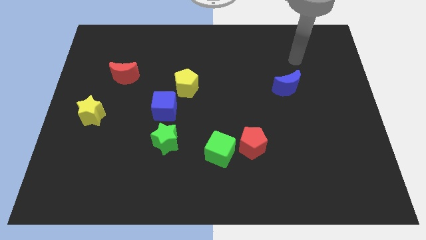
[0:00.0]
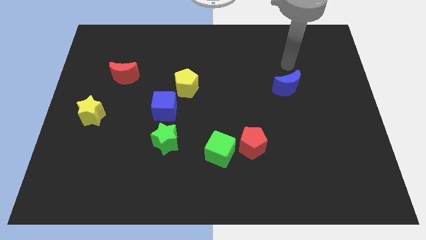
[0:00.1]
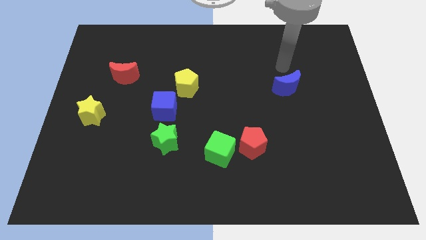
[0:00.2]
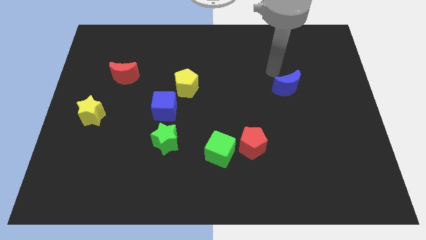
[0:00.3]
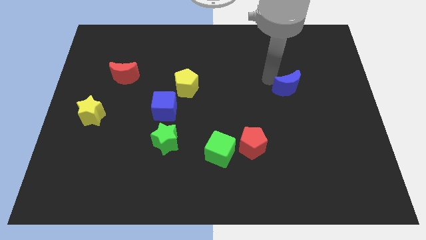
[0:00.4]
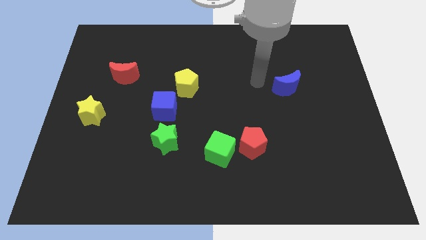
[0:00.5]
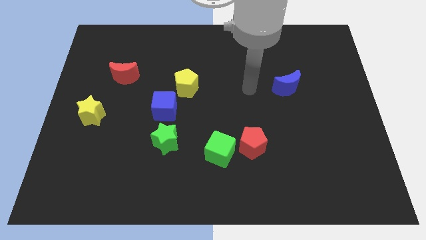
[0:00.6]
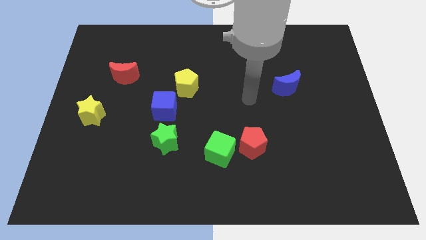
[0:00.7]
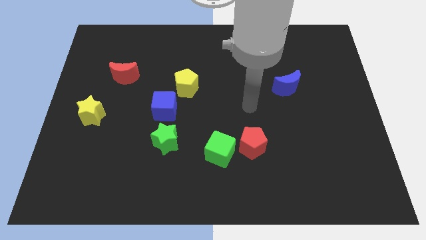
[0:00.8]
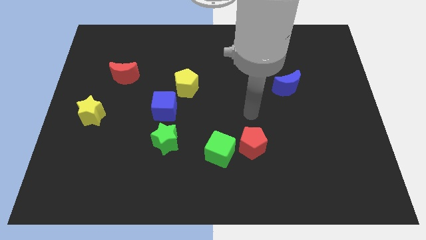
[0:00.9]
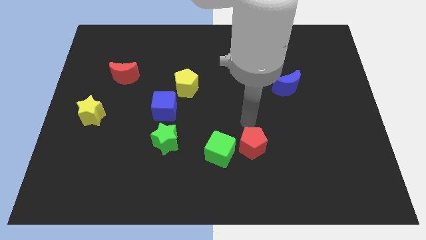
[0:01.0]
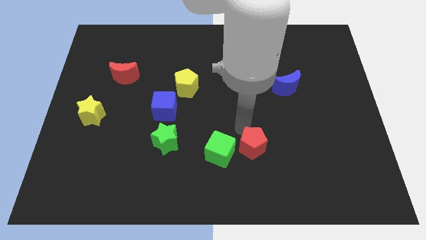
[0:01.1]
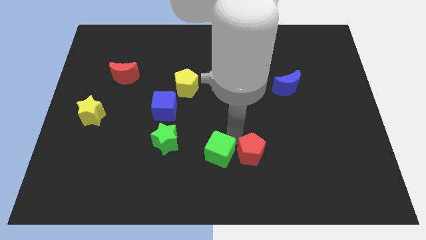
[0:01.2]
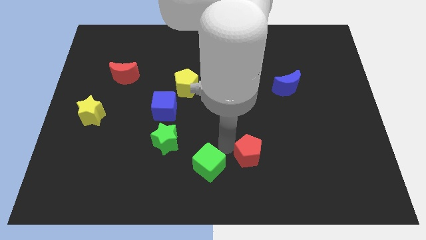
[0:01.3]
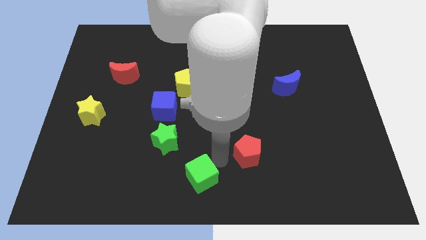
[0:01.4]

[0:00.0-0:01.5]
pull the red pentagon apart from the green cube

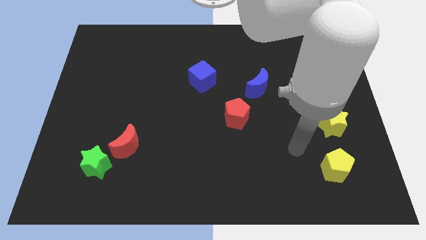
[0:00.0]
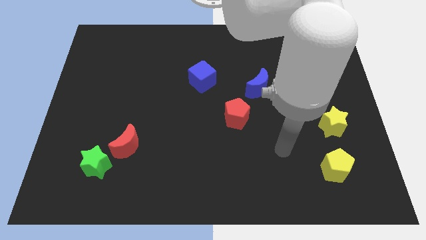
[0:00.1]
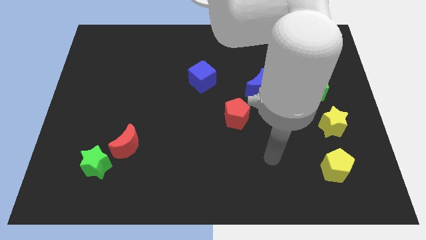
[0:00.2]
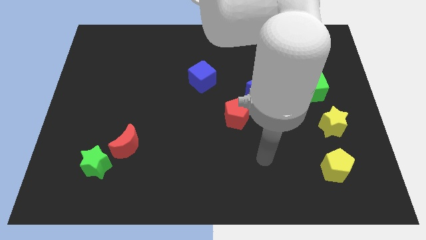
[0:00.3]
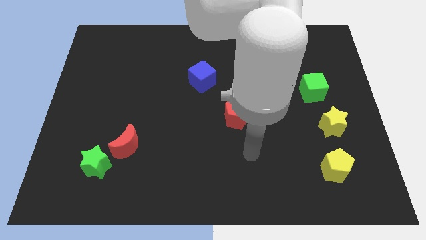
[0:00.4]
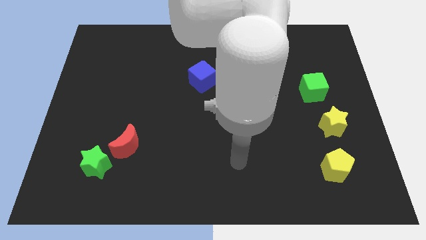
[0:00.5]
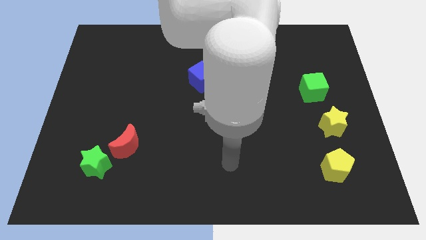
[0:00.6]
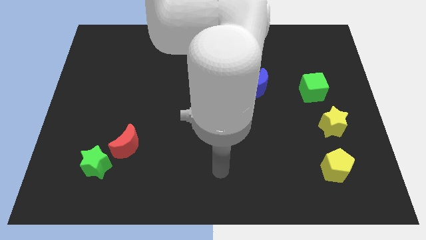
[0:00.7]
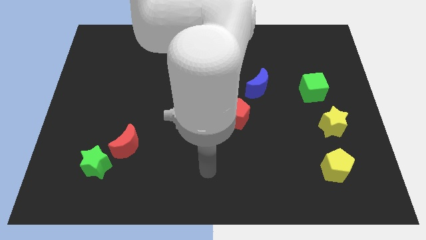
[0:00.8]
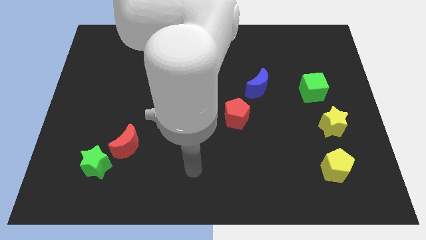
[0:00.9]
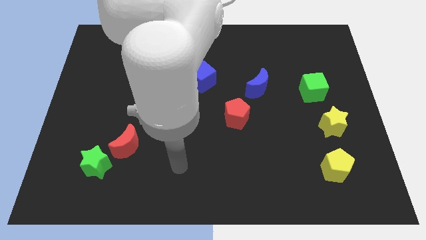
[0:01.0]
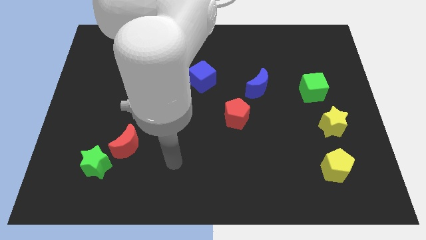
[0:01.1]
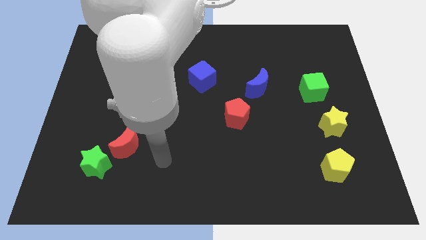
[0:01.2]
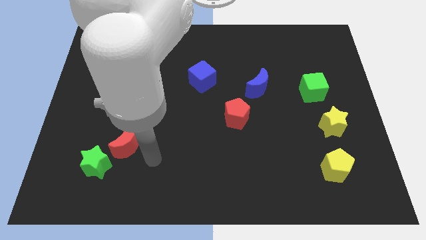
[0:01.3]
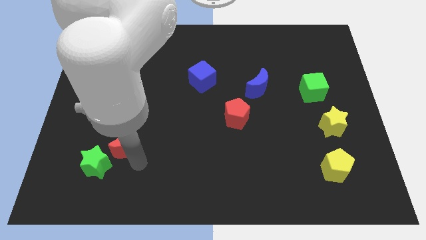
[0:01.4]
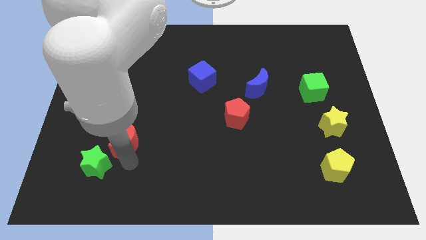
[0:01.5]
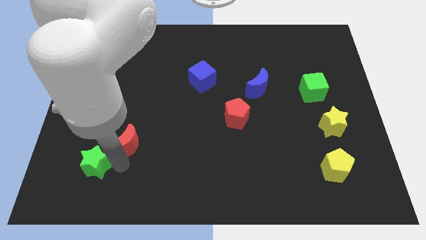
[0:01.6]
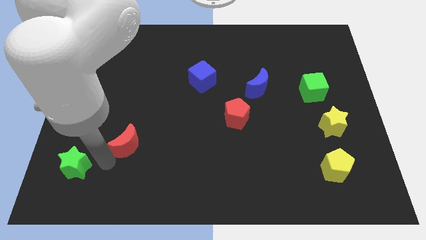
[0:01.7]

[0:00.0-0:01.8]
separate the red moon from the green star

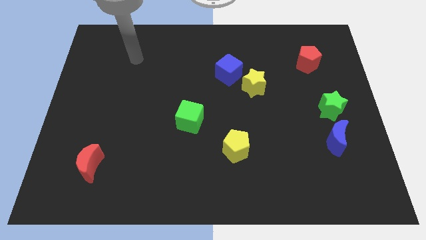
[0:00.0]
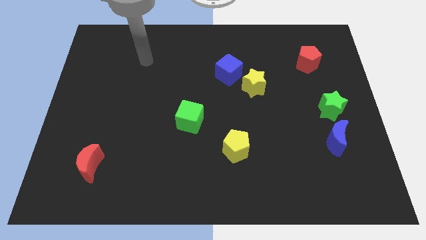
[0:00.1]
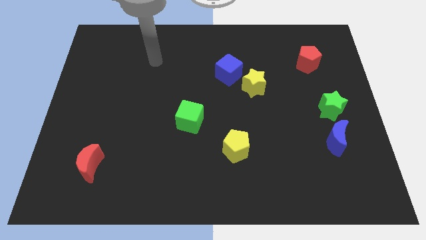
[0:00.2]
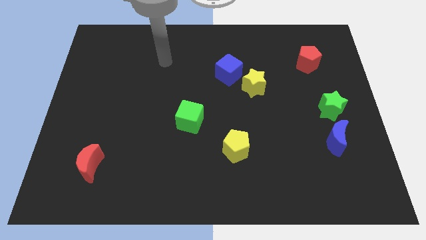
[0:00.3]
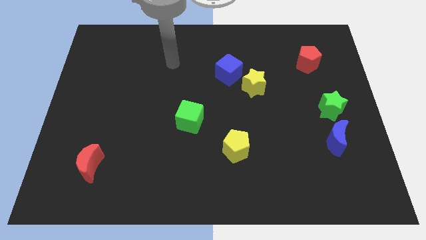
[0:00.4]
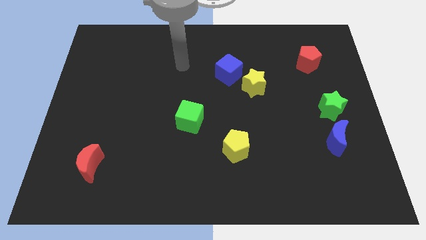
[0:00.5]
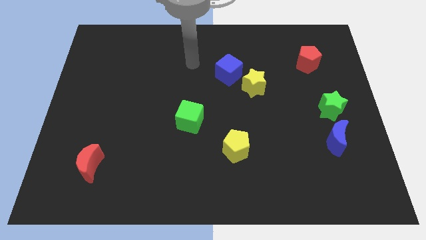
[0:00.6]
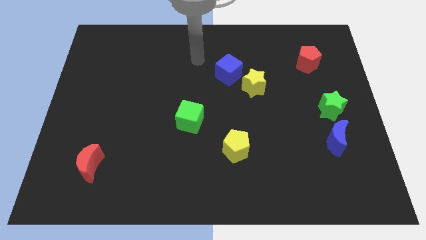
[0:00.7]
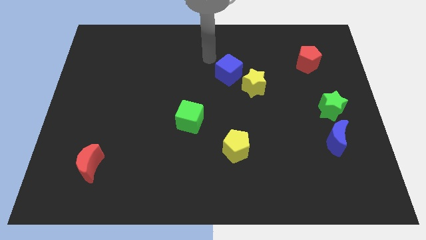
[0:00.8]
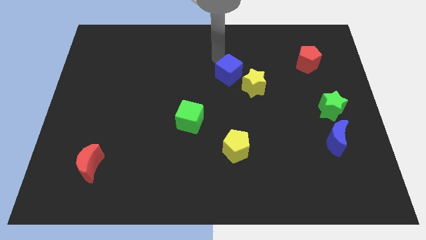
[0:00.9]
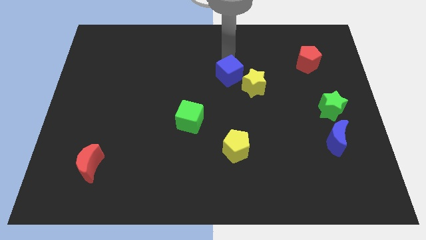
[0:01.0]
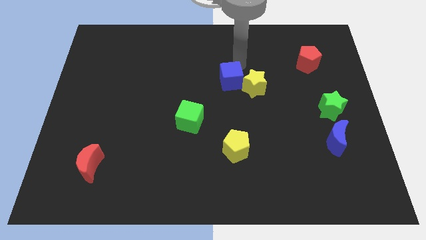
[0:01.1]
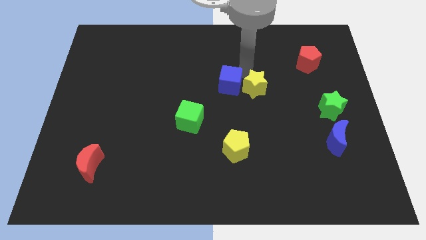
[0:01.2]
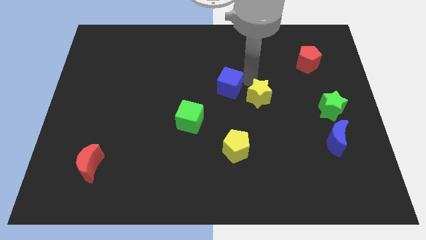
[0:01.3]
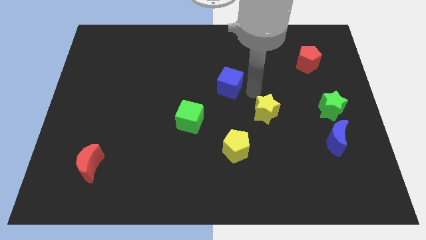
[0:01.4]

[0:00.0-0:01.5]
separate the blue cube from the yellow star

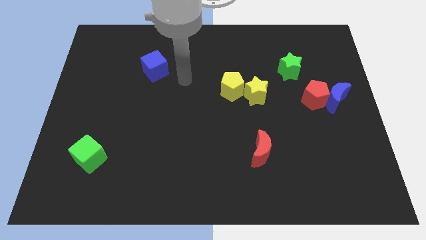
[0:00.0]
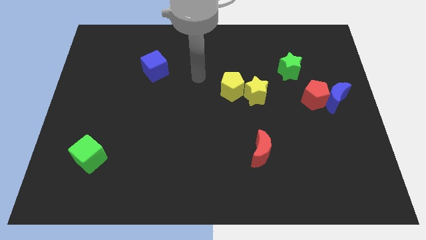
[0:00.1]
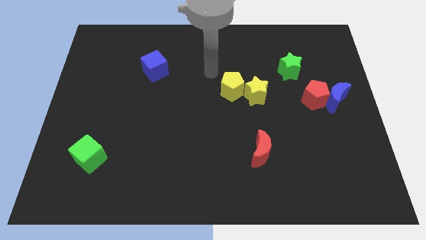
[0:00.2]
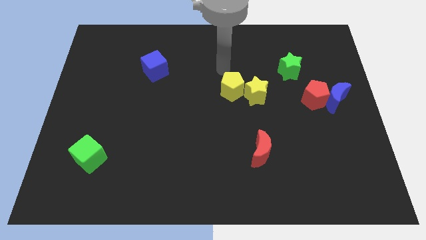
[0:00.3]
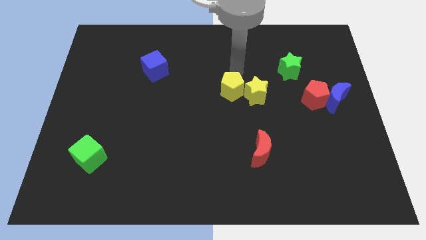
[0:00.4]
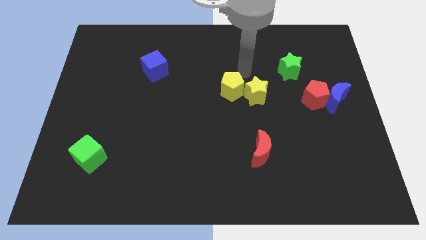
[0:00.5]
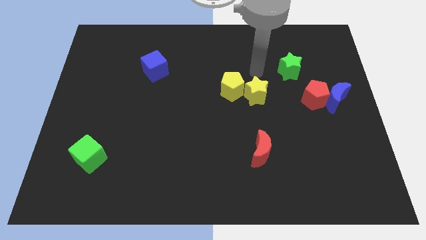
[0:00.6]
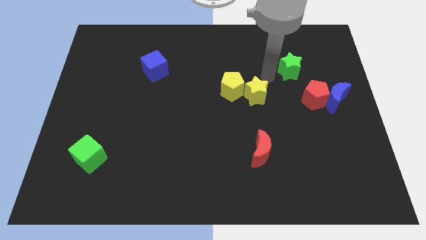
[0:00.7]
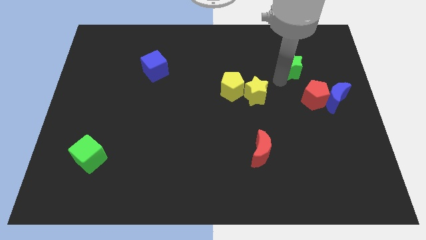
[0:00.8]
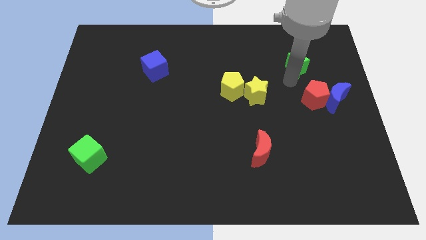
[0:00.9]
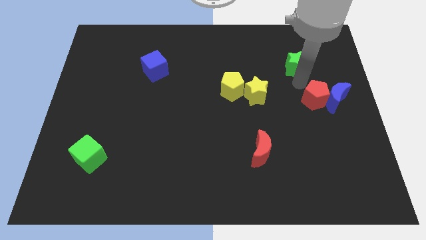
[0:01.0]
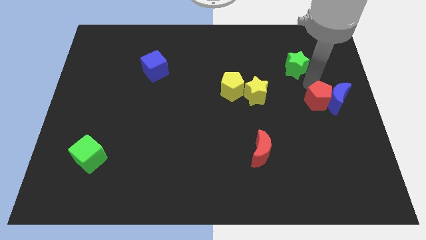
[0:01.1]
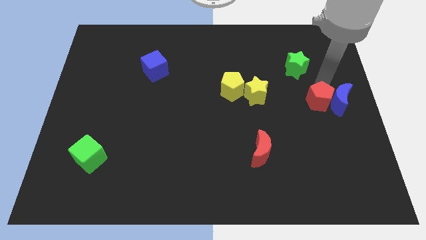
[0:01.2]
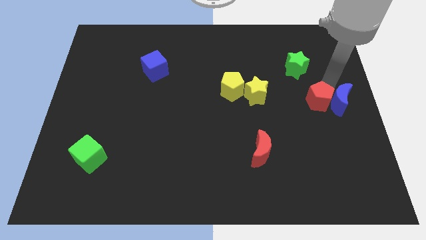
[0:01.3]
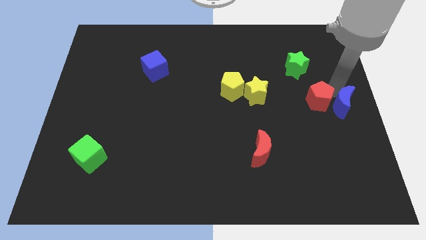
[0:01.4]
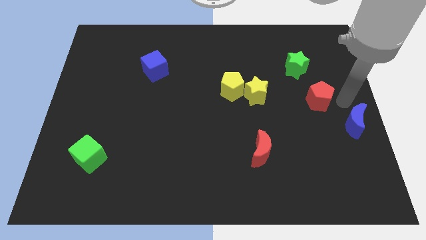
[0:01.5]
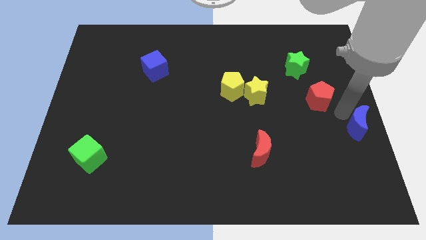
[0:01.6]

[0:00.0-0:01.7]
move the red pentagon away from the blue moon

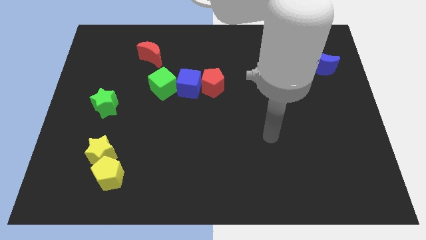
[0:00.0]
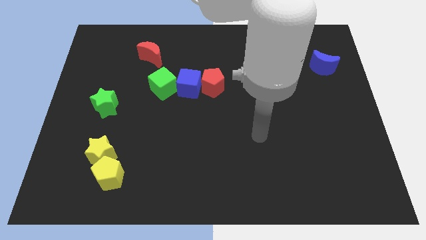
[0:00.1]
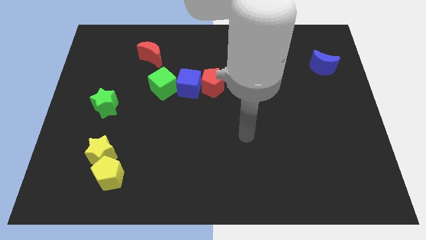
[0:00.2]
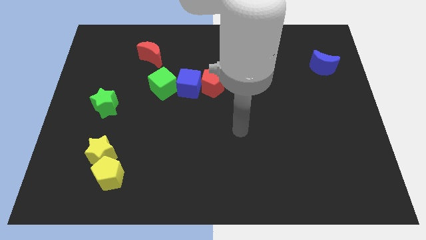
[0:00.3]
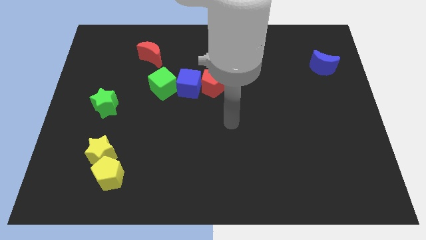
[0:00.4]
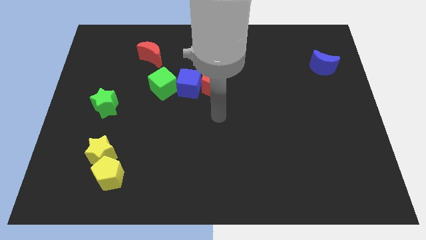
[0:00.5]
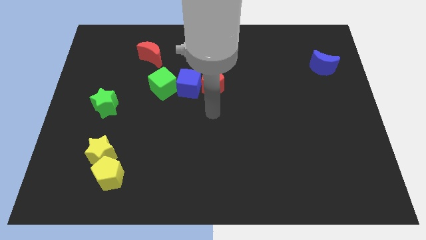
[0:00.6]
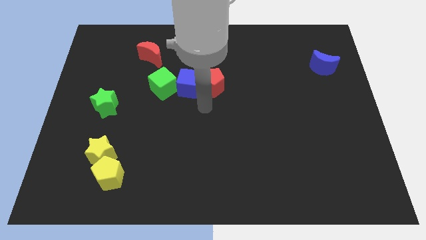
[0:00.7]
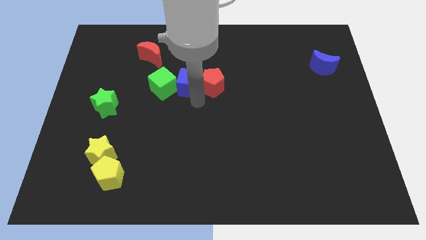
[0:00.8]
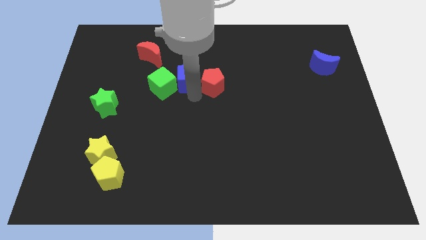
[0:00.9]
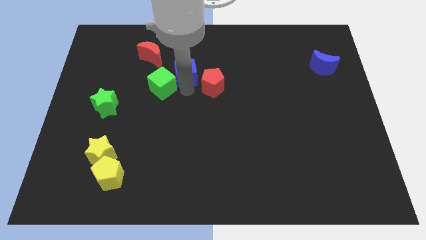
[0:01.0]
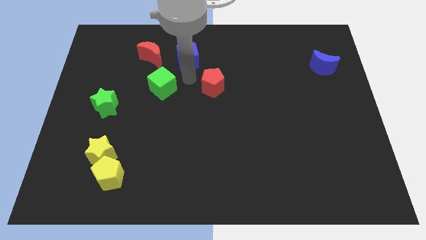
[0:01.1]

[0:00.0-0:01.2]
move the red pentagon away from the blue cube

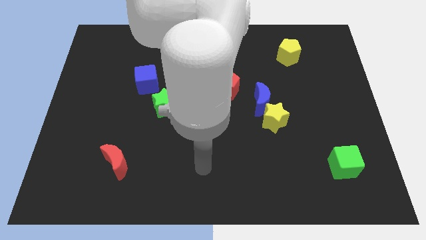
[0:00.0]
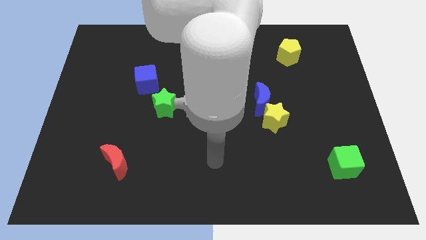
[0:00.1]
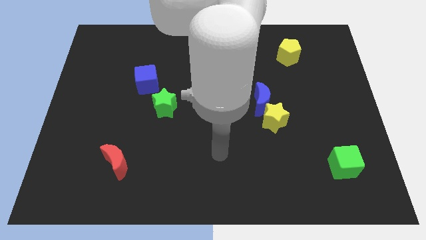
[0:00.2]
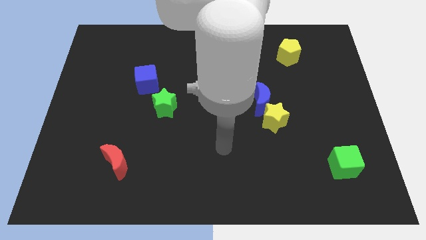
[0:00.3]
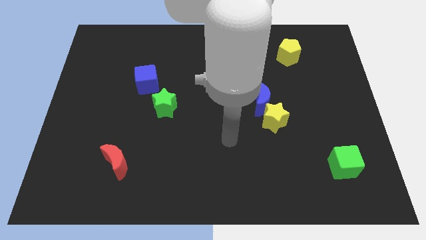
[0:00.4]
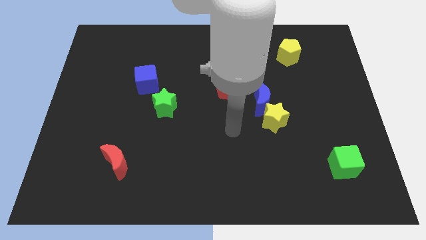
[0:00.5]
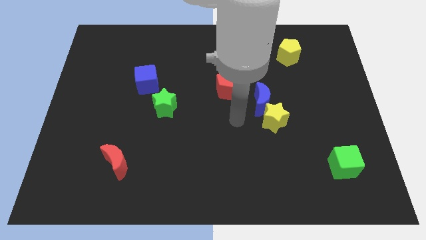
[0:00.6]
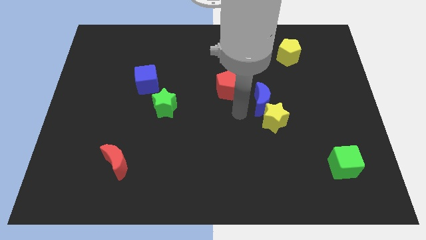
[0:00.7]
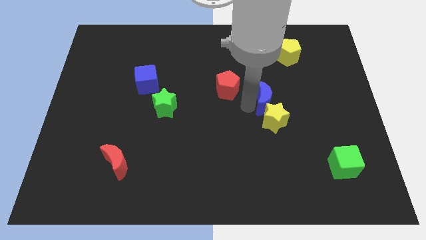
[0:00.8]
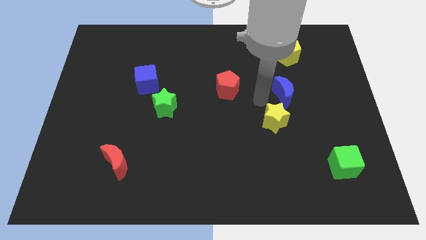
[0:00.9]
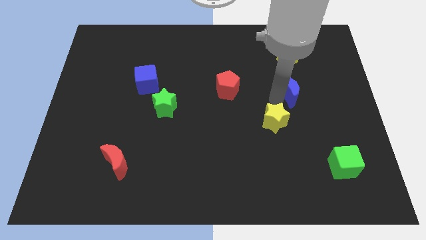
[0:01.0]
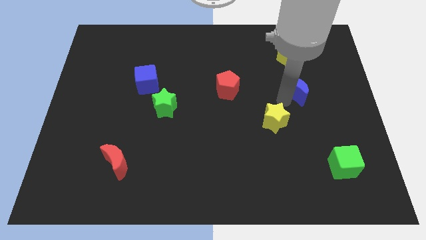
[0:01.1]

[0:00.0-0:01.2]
separate the yellow star from the blue moon
